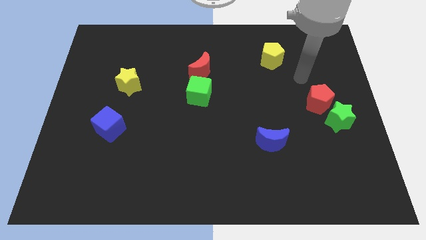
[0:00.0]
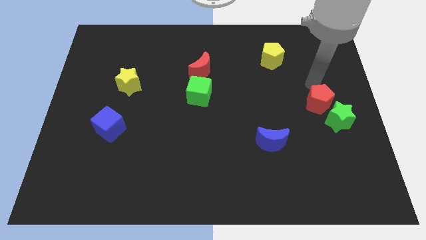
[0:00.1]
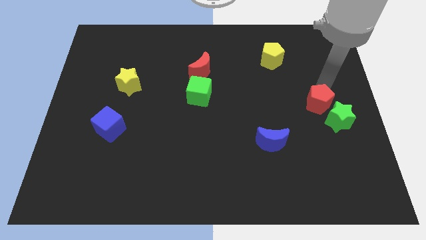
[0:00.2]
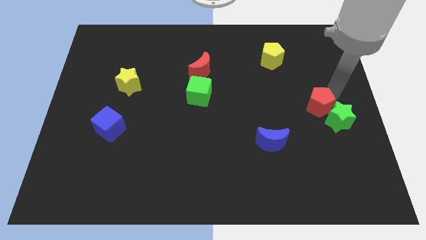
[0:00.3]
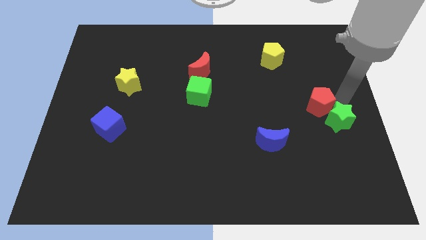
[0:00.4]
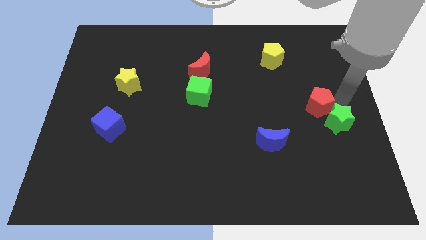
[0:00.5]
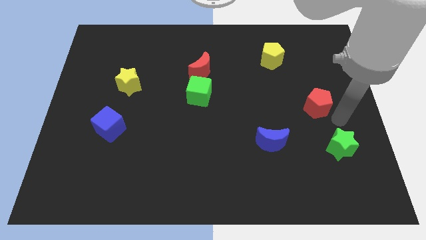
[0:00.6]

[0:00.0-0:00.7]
pull the red pentagon apart from the green star

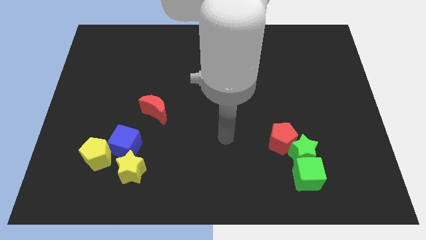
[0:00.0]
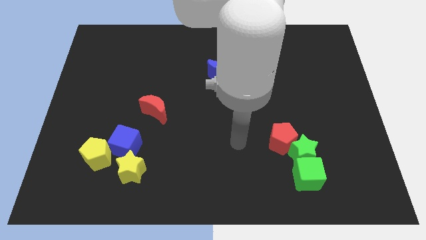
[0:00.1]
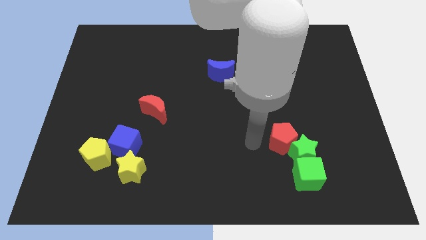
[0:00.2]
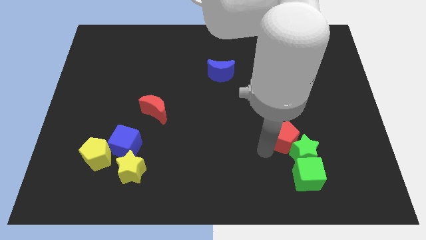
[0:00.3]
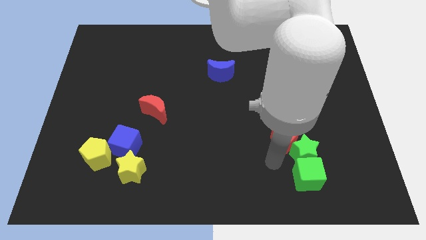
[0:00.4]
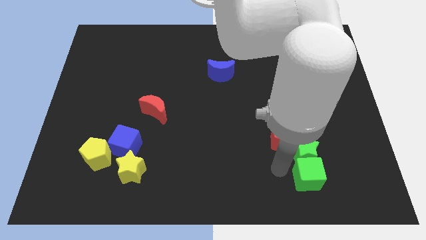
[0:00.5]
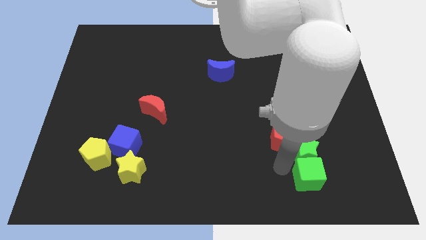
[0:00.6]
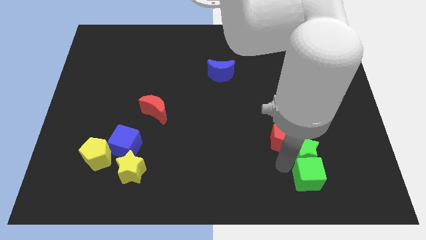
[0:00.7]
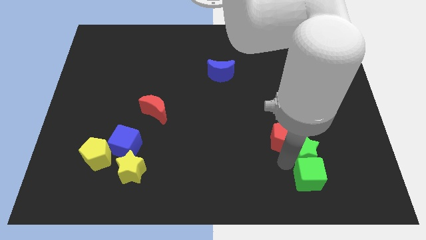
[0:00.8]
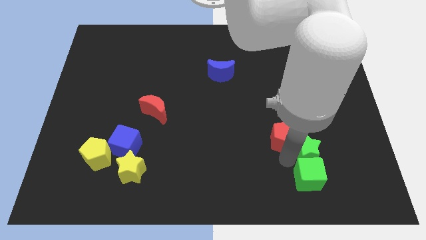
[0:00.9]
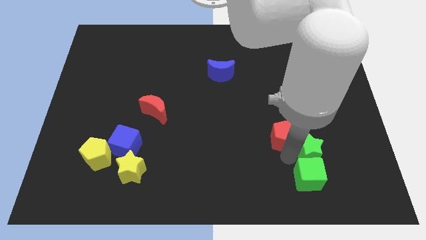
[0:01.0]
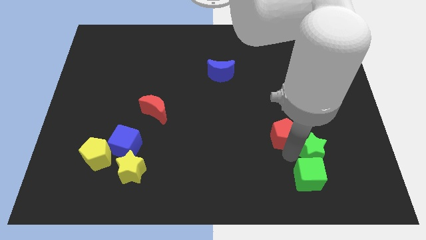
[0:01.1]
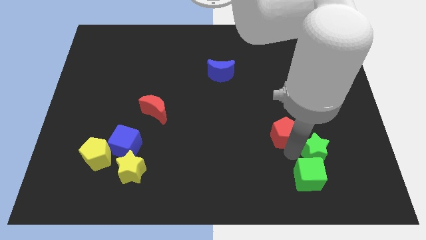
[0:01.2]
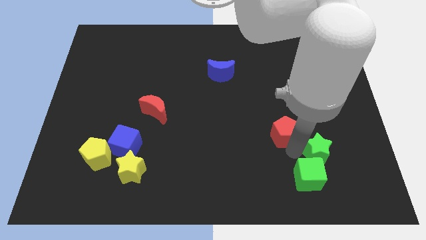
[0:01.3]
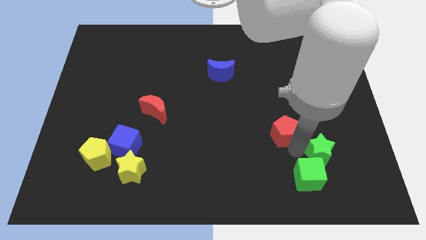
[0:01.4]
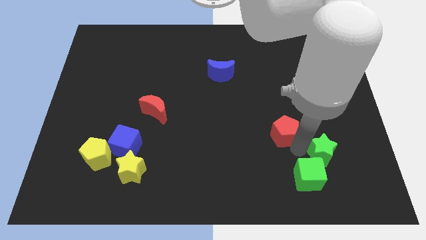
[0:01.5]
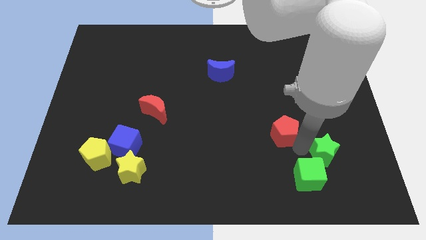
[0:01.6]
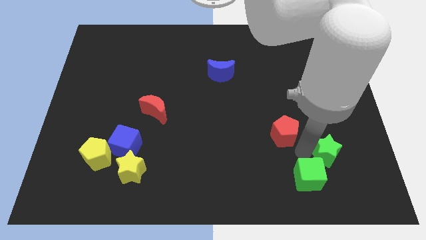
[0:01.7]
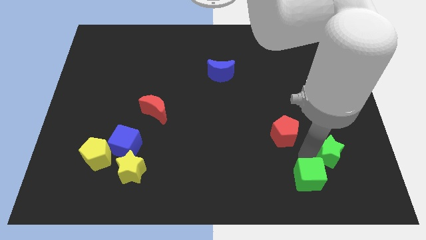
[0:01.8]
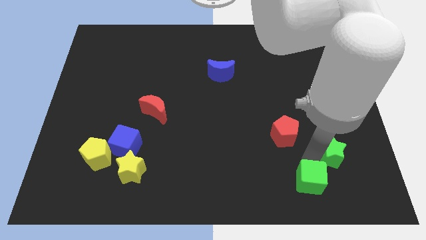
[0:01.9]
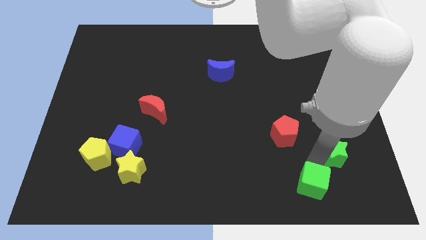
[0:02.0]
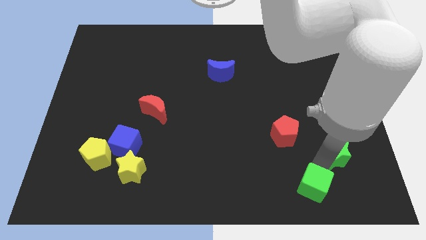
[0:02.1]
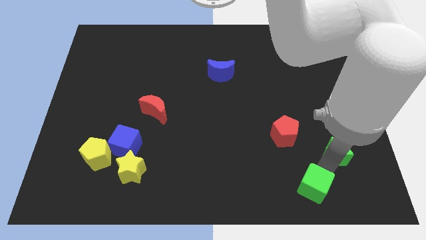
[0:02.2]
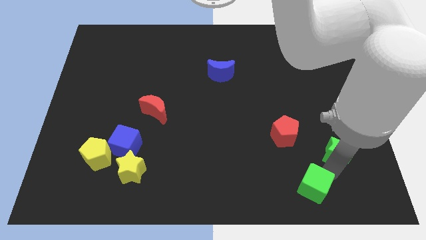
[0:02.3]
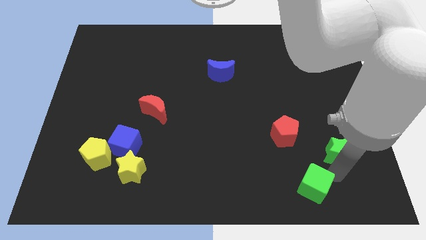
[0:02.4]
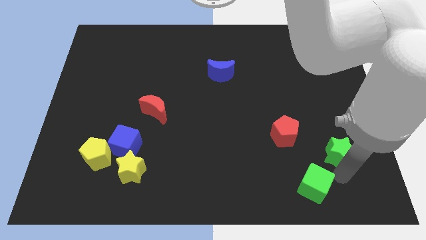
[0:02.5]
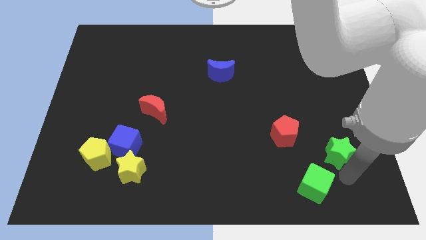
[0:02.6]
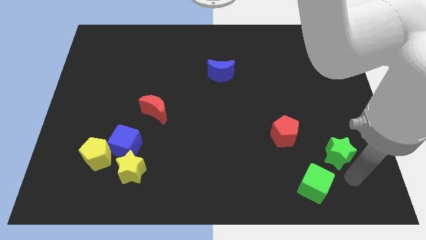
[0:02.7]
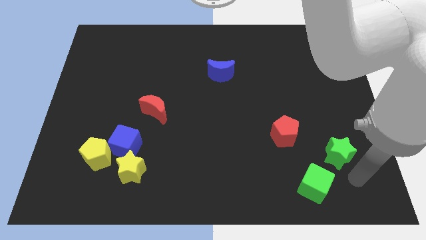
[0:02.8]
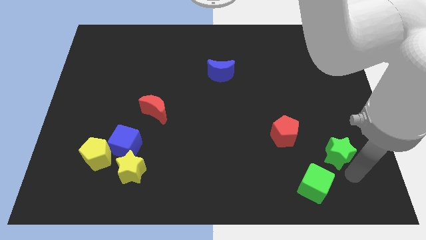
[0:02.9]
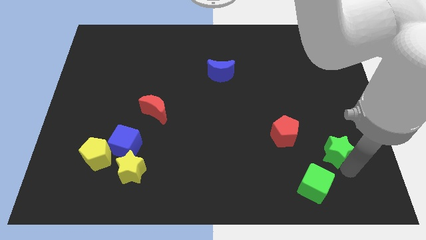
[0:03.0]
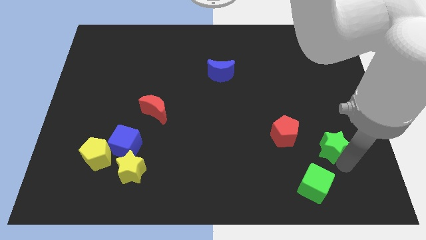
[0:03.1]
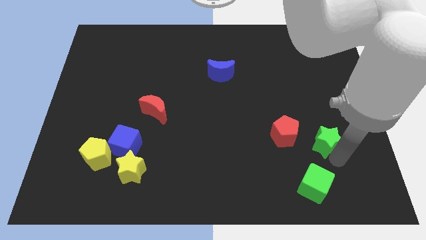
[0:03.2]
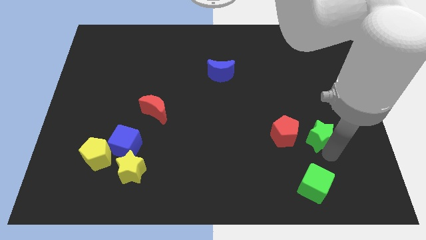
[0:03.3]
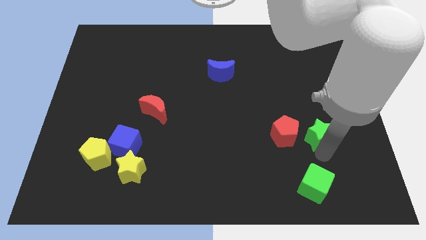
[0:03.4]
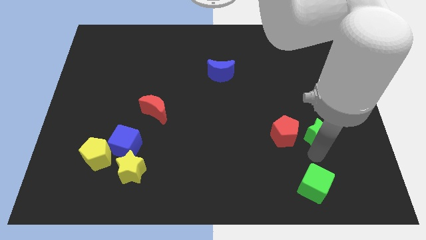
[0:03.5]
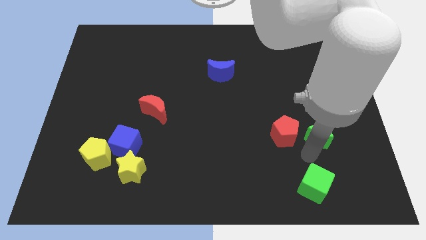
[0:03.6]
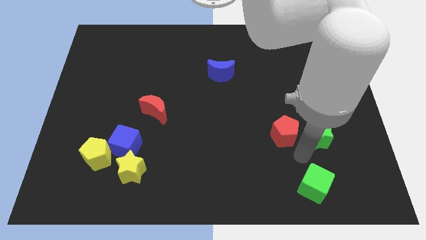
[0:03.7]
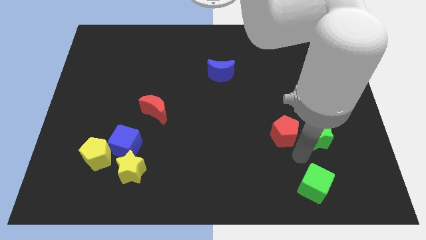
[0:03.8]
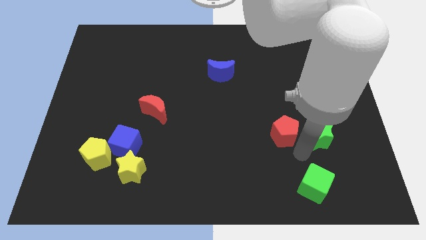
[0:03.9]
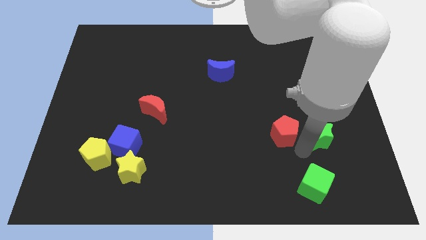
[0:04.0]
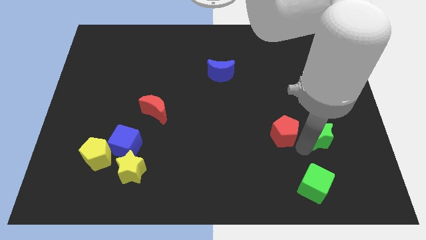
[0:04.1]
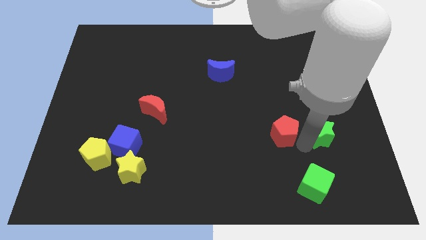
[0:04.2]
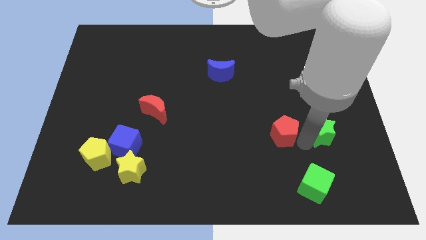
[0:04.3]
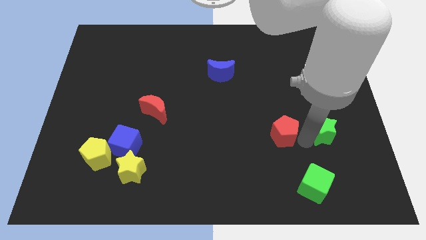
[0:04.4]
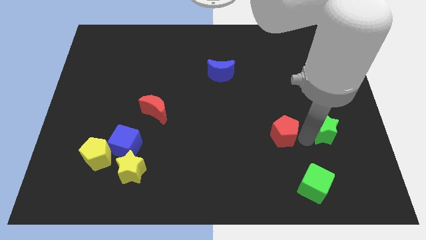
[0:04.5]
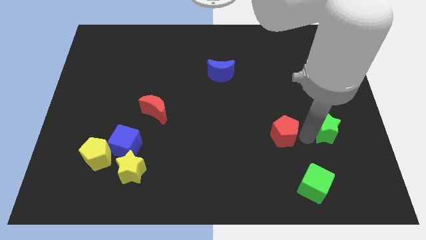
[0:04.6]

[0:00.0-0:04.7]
move the green star away from the red pentagon and green cube

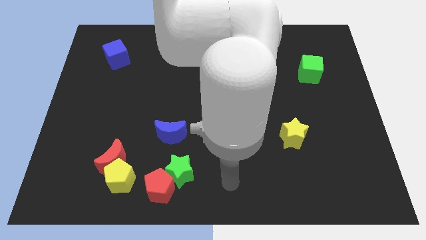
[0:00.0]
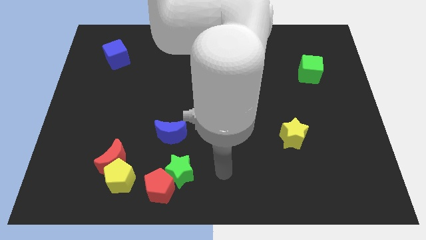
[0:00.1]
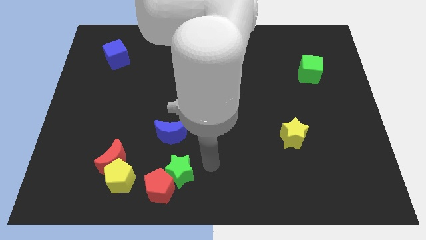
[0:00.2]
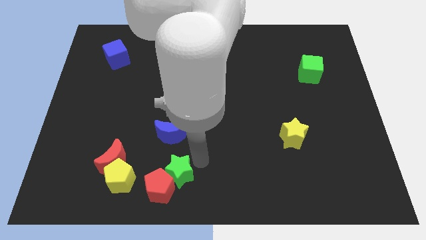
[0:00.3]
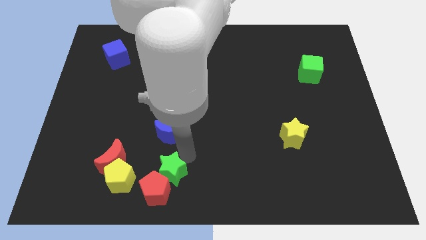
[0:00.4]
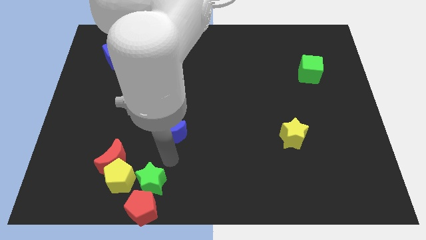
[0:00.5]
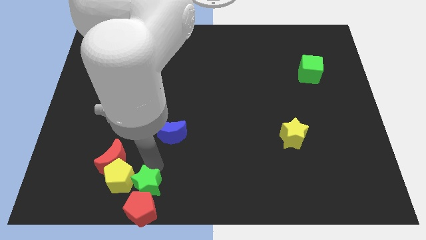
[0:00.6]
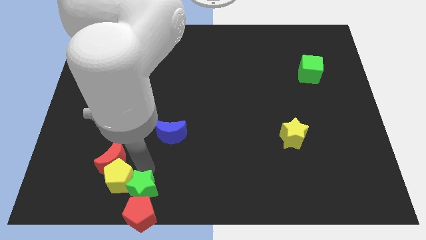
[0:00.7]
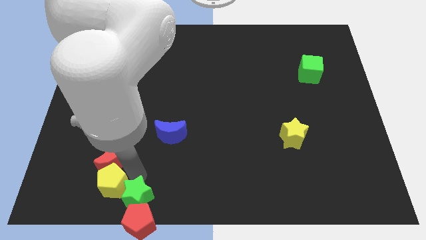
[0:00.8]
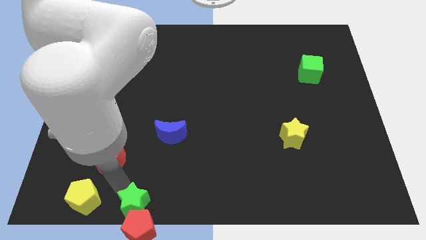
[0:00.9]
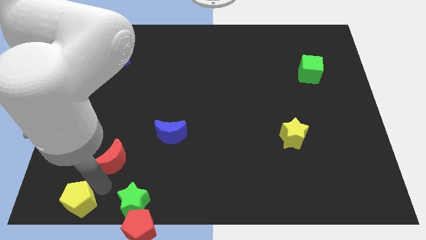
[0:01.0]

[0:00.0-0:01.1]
separate the red moon from the yellow pentagon

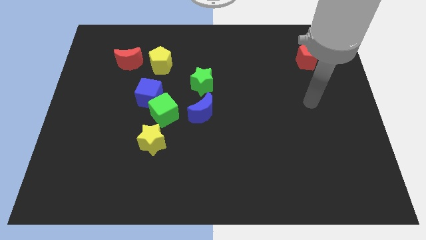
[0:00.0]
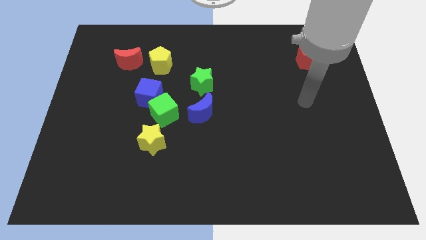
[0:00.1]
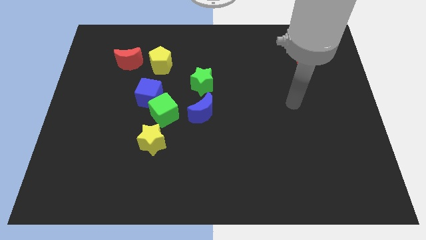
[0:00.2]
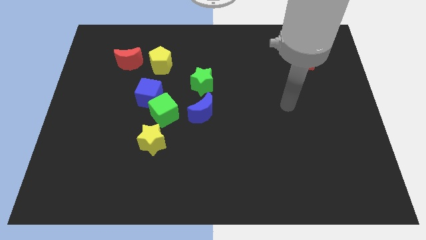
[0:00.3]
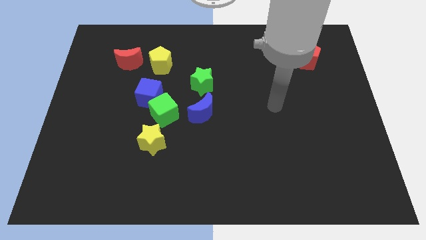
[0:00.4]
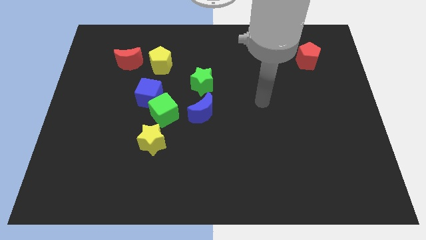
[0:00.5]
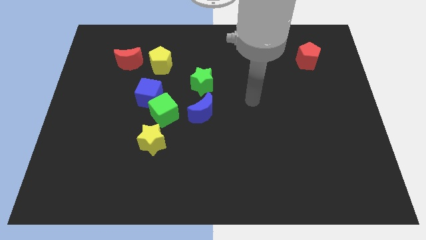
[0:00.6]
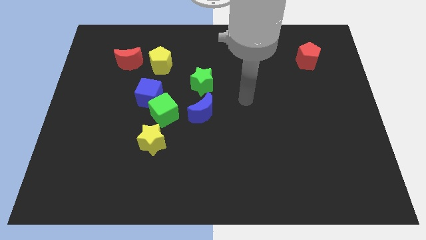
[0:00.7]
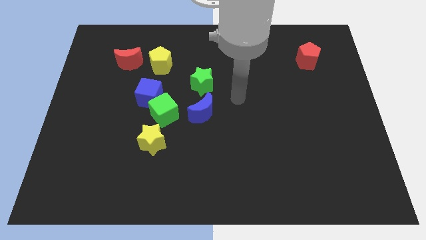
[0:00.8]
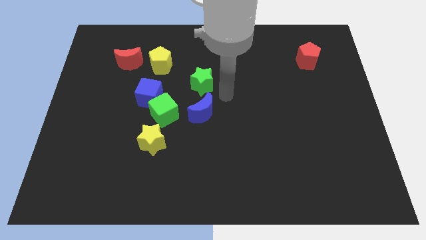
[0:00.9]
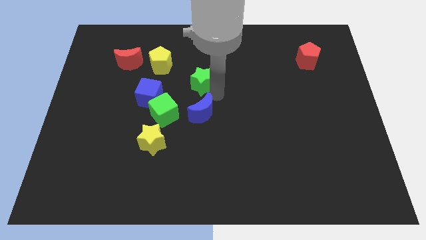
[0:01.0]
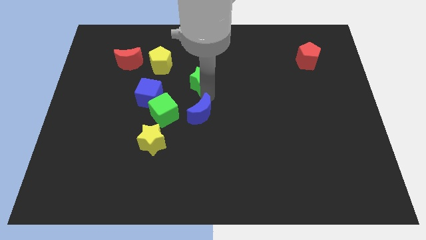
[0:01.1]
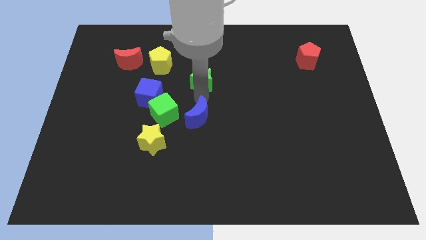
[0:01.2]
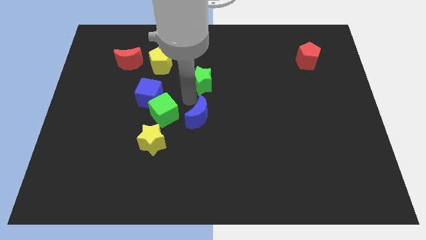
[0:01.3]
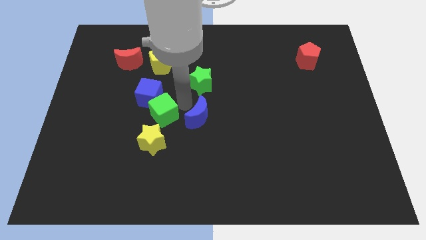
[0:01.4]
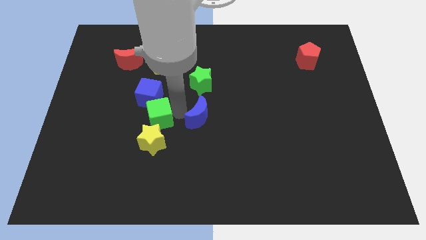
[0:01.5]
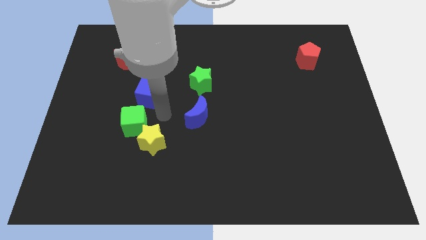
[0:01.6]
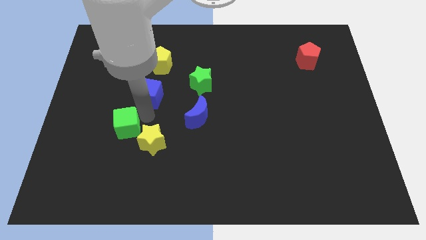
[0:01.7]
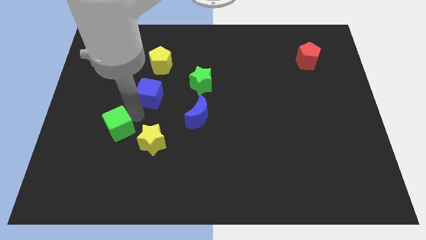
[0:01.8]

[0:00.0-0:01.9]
separate the blue cube from the green cube

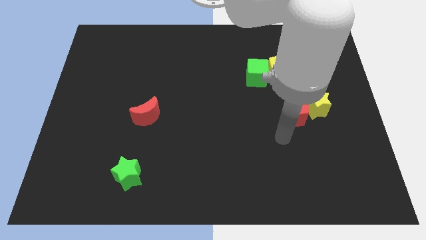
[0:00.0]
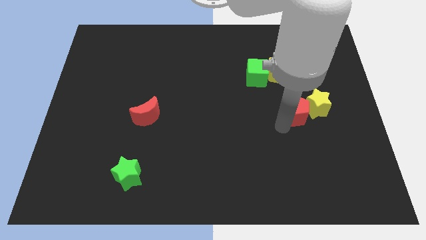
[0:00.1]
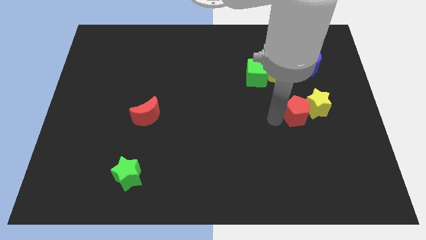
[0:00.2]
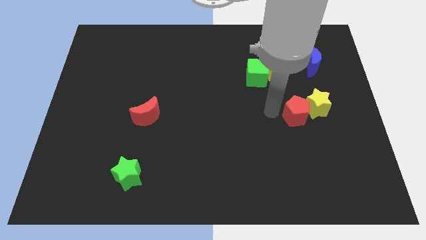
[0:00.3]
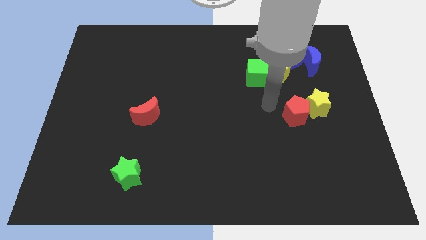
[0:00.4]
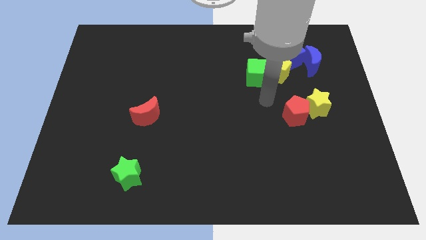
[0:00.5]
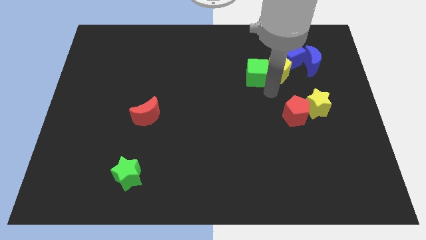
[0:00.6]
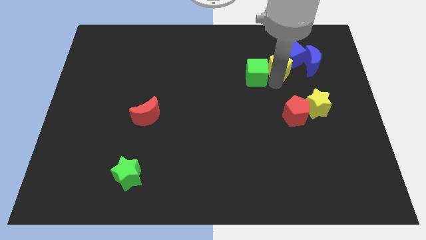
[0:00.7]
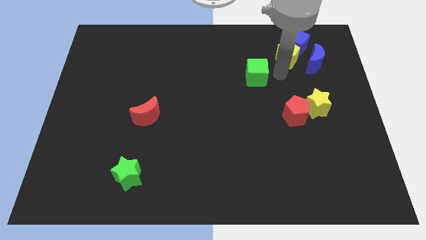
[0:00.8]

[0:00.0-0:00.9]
pull the green cube apart from the yellow pentagon

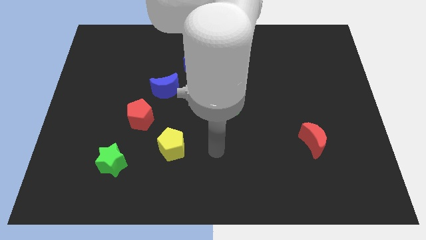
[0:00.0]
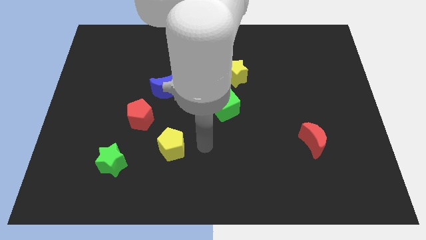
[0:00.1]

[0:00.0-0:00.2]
move the red pentagon away from the blue moon
